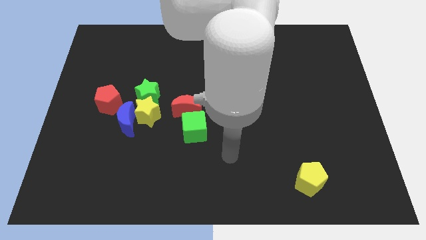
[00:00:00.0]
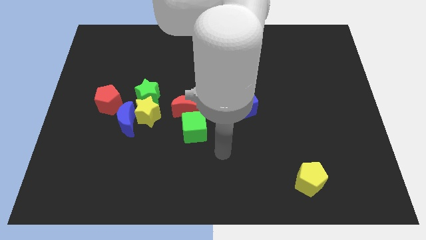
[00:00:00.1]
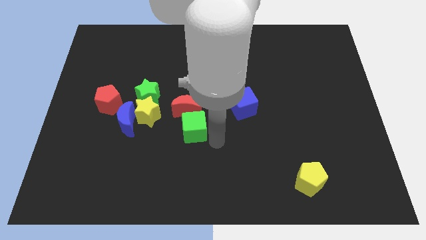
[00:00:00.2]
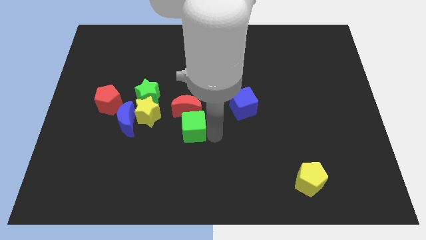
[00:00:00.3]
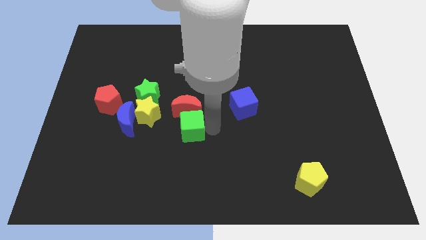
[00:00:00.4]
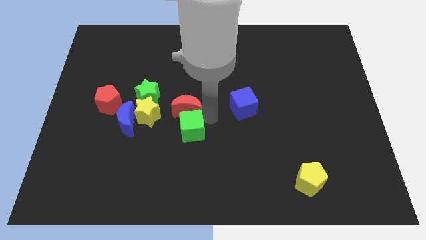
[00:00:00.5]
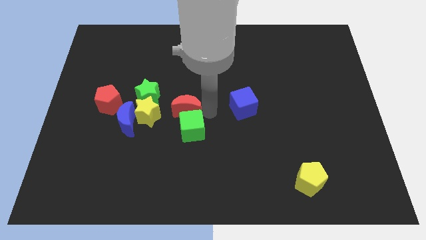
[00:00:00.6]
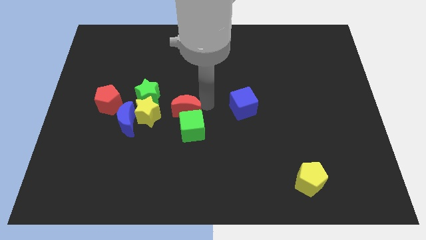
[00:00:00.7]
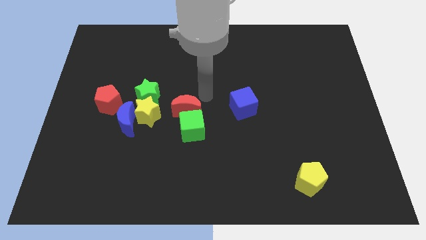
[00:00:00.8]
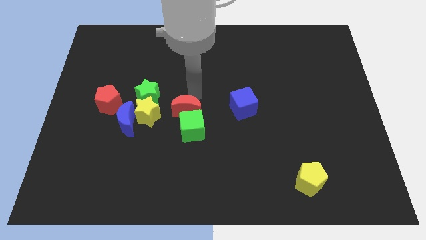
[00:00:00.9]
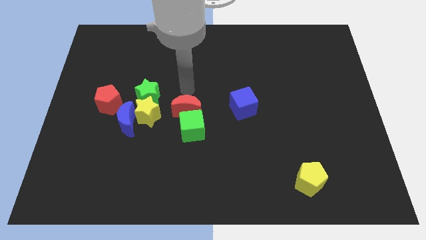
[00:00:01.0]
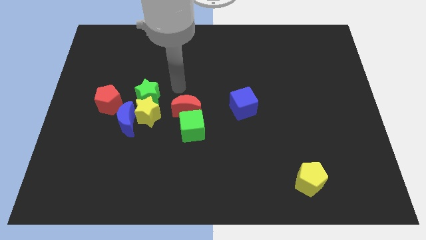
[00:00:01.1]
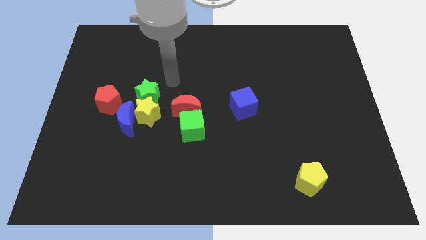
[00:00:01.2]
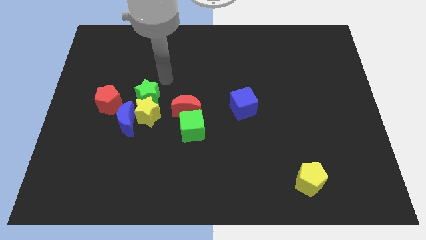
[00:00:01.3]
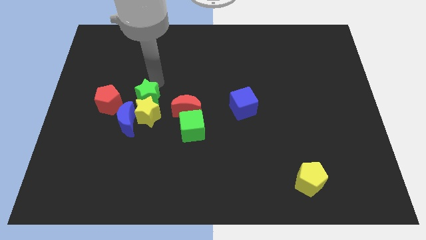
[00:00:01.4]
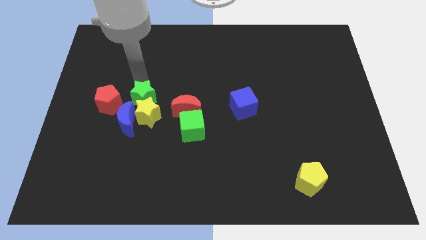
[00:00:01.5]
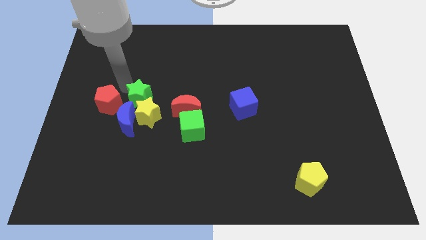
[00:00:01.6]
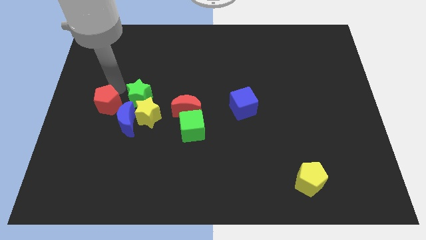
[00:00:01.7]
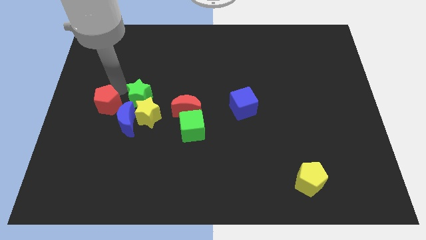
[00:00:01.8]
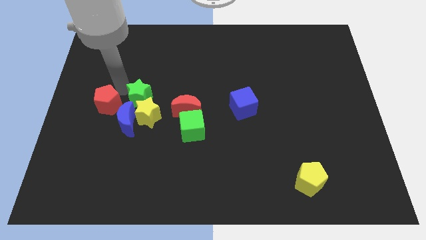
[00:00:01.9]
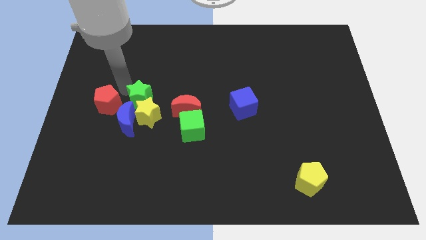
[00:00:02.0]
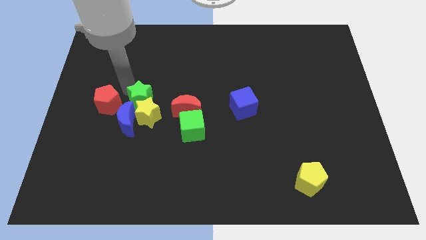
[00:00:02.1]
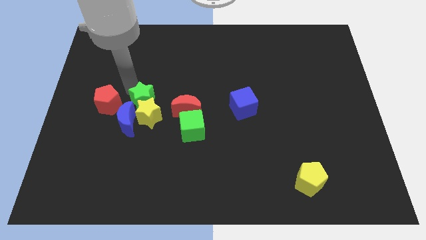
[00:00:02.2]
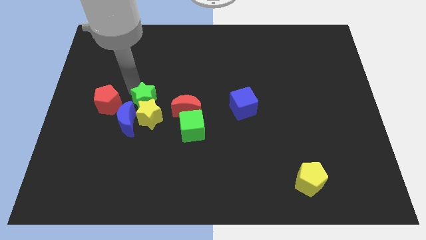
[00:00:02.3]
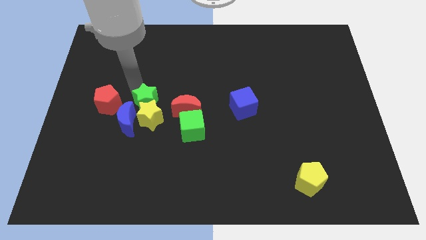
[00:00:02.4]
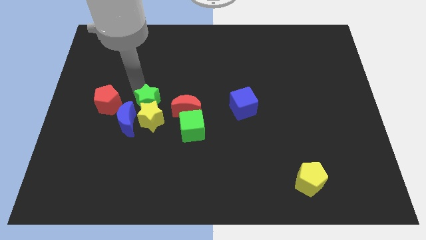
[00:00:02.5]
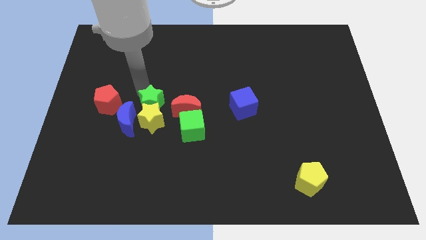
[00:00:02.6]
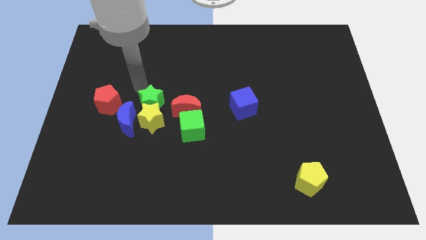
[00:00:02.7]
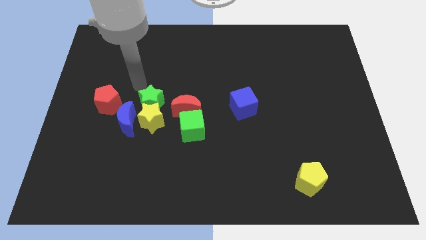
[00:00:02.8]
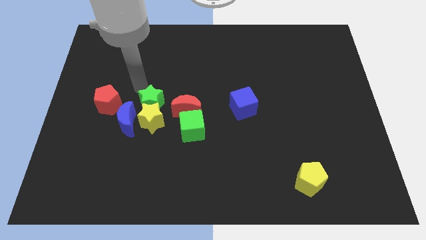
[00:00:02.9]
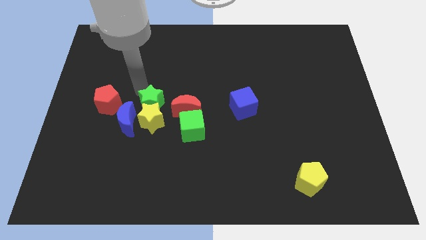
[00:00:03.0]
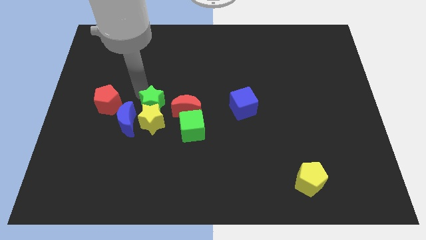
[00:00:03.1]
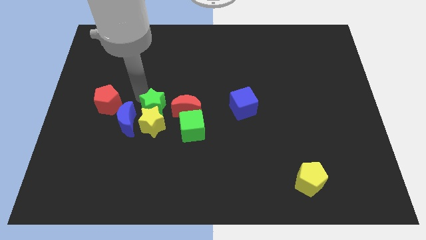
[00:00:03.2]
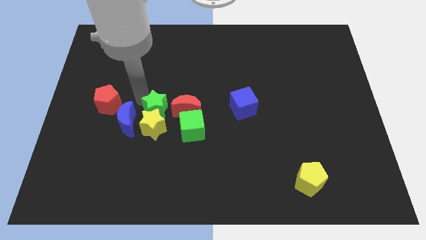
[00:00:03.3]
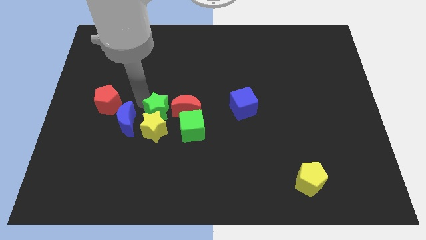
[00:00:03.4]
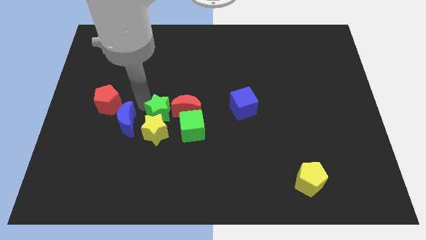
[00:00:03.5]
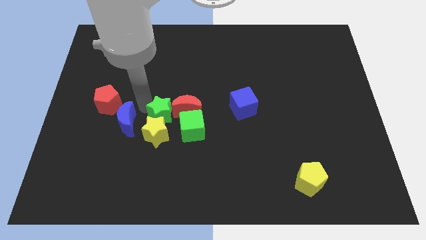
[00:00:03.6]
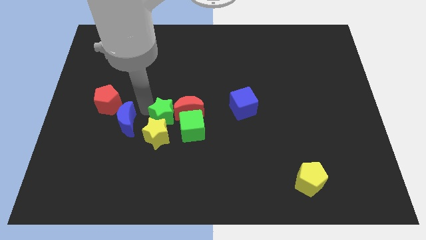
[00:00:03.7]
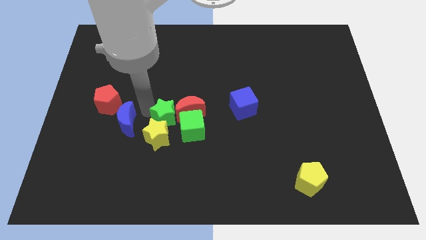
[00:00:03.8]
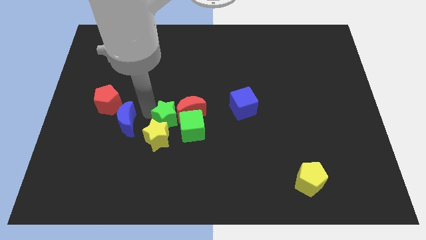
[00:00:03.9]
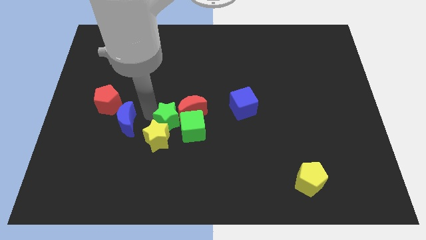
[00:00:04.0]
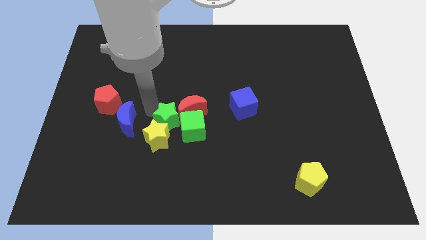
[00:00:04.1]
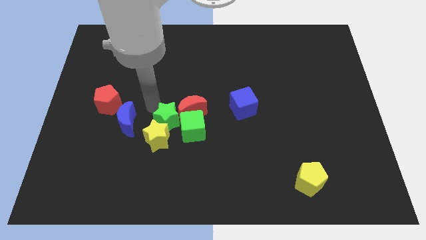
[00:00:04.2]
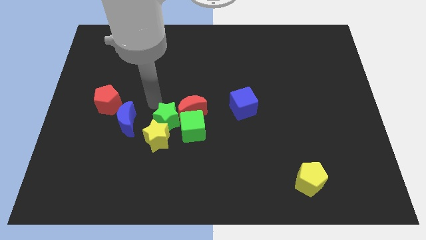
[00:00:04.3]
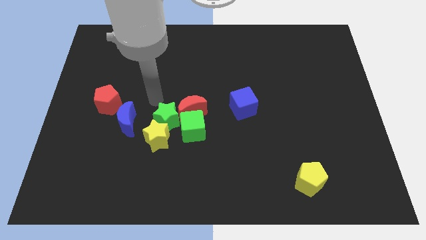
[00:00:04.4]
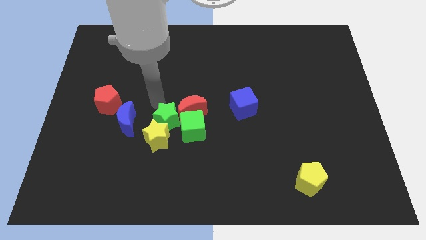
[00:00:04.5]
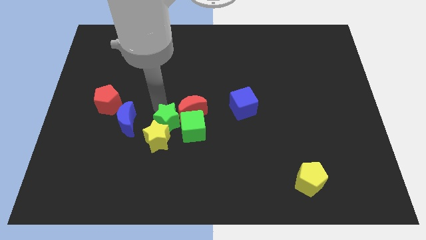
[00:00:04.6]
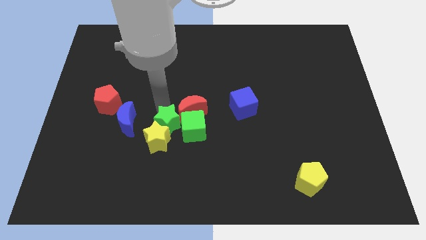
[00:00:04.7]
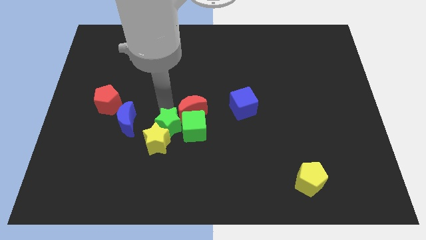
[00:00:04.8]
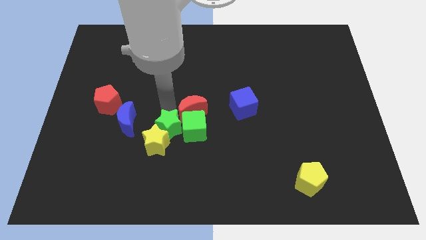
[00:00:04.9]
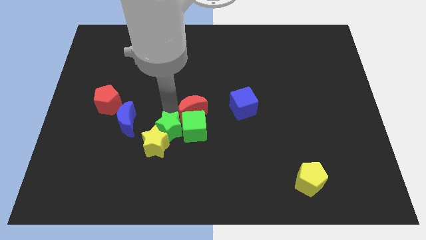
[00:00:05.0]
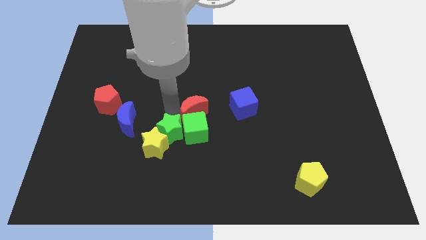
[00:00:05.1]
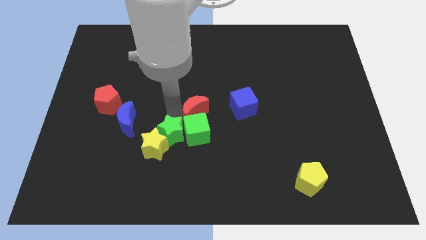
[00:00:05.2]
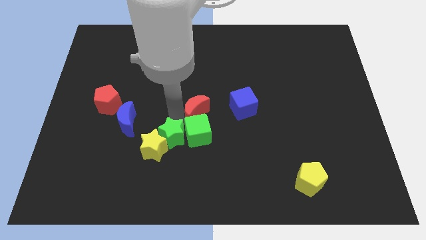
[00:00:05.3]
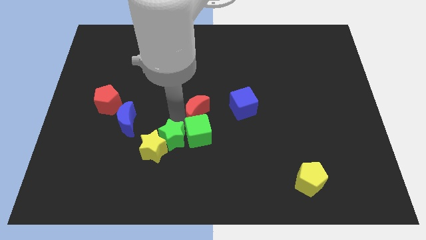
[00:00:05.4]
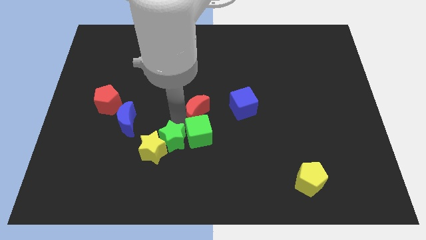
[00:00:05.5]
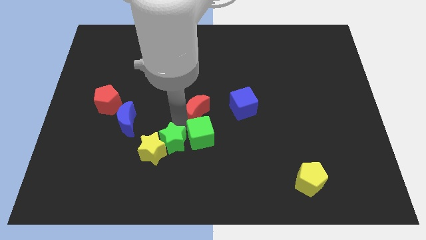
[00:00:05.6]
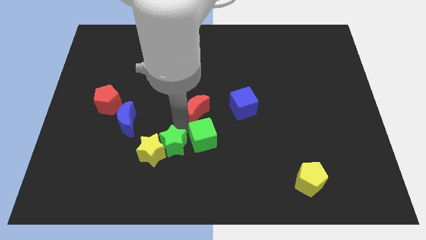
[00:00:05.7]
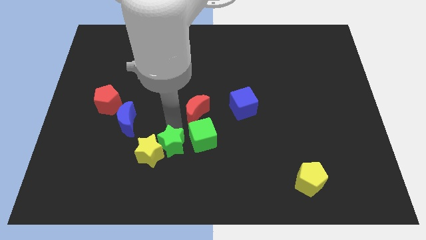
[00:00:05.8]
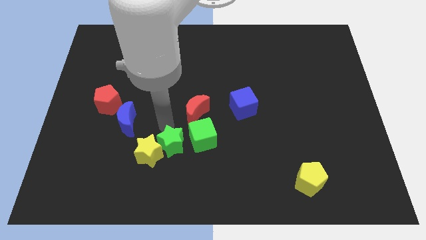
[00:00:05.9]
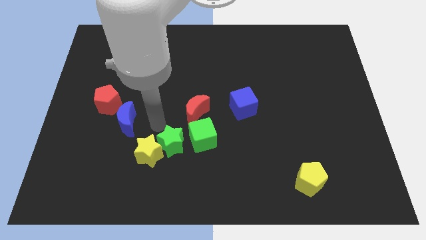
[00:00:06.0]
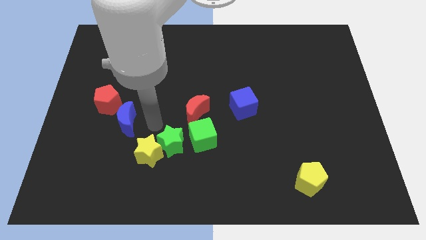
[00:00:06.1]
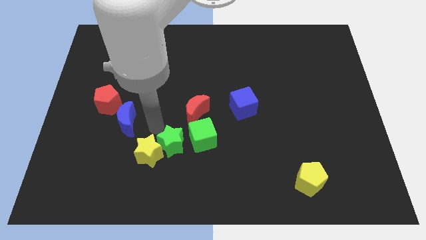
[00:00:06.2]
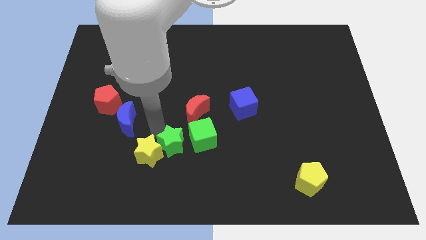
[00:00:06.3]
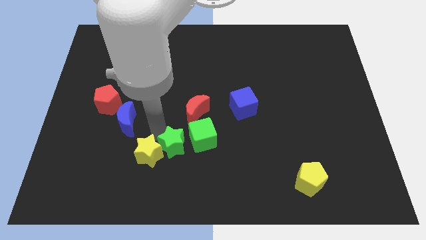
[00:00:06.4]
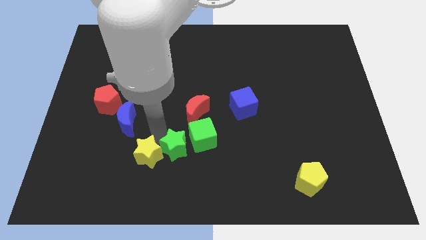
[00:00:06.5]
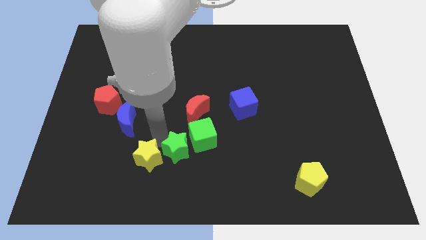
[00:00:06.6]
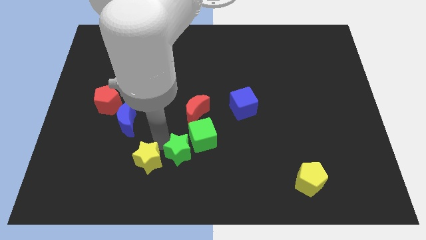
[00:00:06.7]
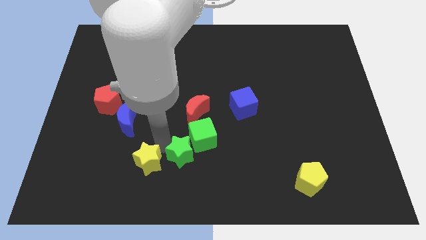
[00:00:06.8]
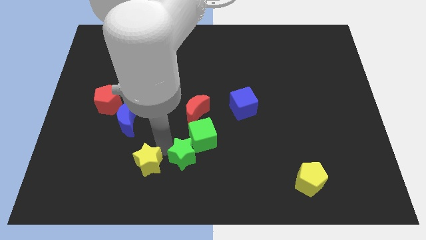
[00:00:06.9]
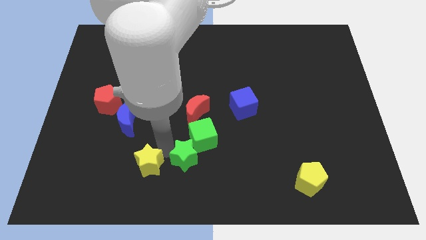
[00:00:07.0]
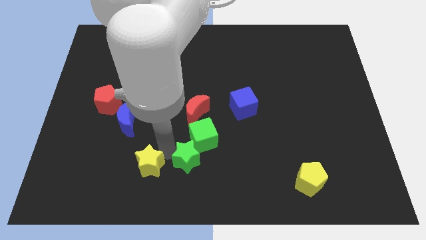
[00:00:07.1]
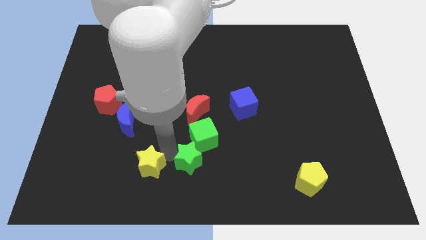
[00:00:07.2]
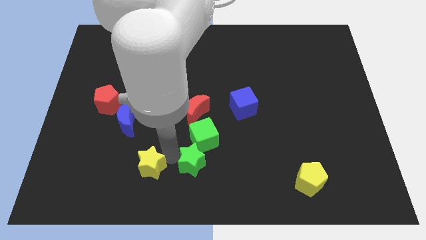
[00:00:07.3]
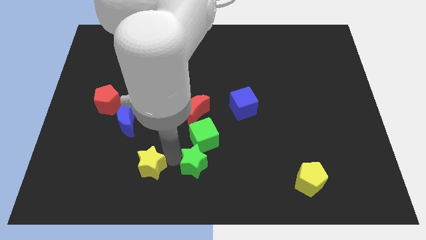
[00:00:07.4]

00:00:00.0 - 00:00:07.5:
move the green star down and right
